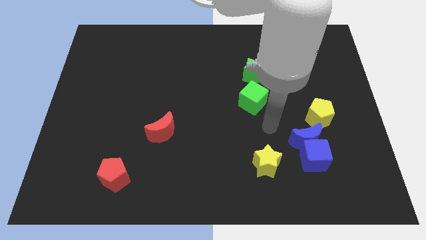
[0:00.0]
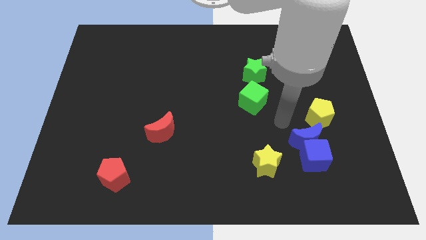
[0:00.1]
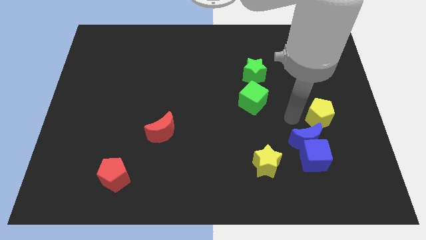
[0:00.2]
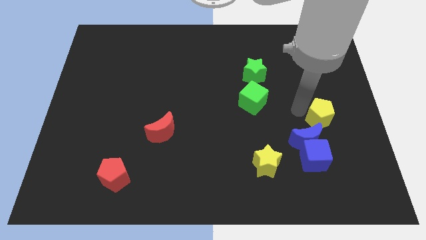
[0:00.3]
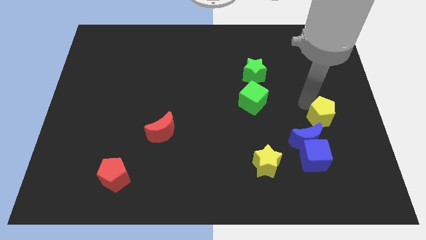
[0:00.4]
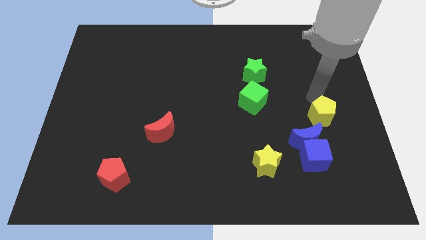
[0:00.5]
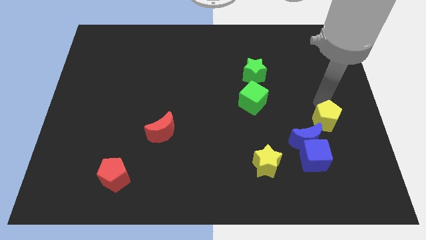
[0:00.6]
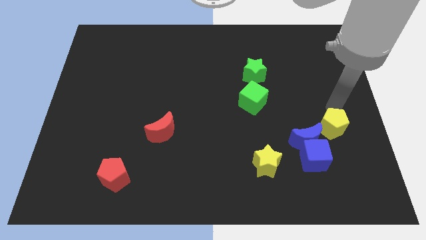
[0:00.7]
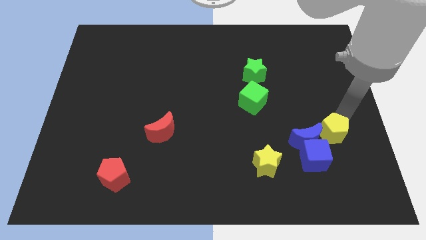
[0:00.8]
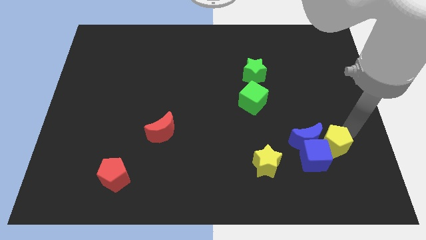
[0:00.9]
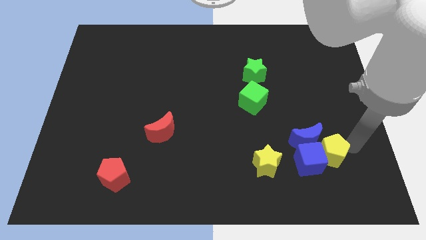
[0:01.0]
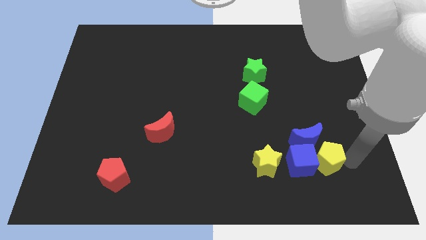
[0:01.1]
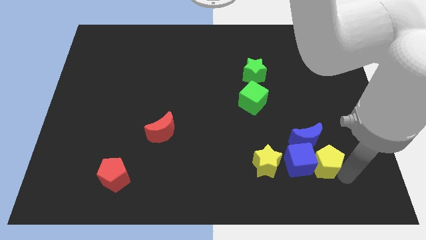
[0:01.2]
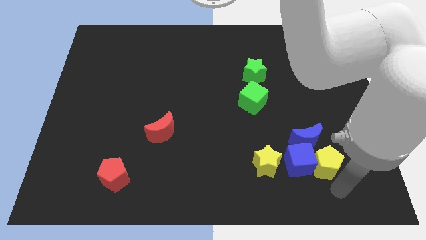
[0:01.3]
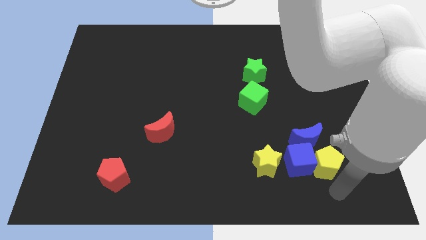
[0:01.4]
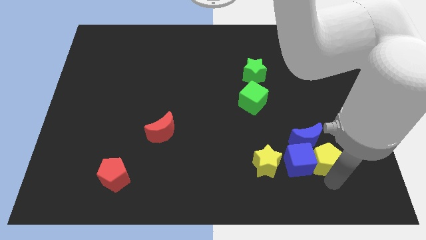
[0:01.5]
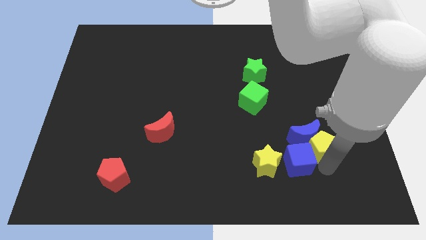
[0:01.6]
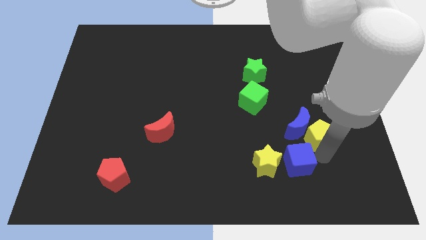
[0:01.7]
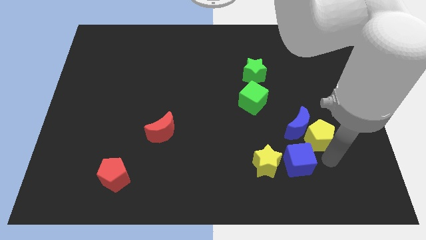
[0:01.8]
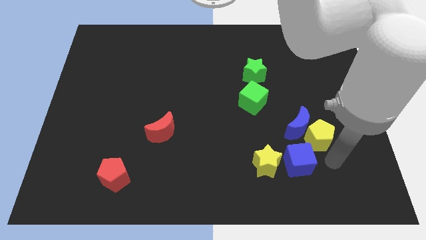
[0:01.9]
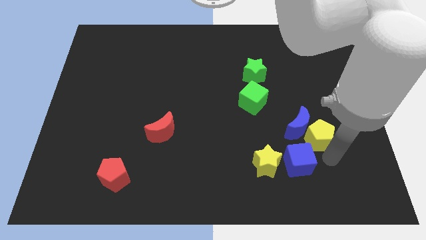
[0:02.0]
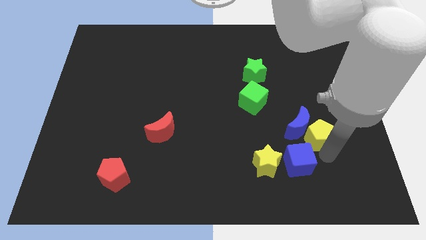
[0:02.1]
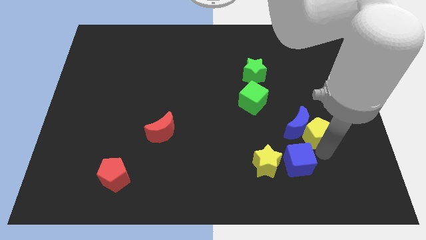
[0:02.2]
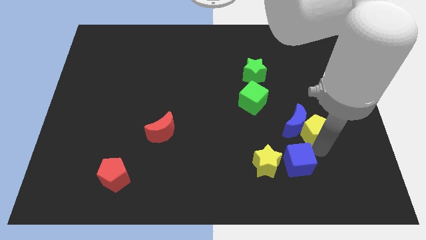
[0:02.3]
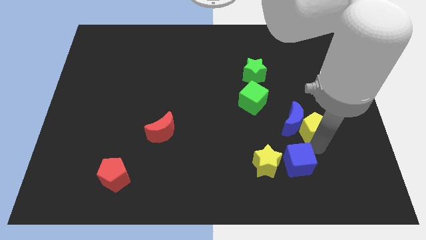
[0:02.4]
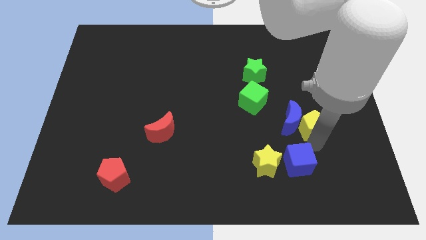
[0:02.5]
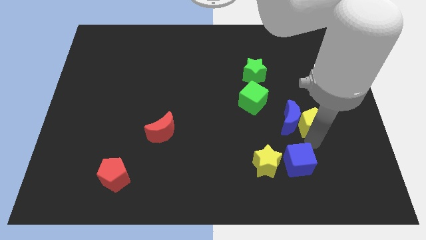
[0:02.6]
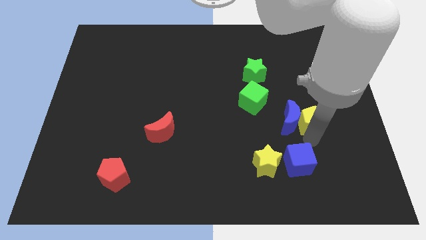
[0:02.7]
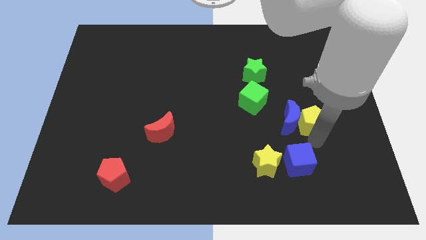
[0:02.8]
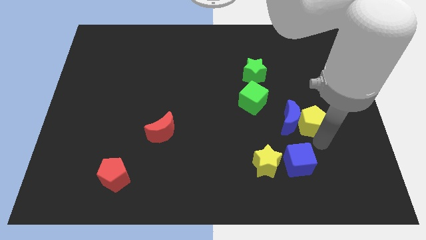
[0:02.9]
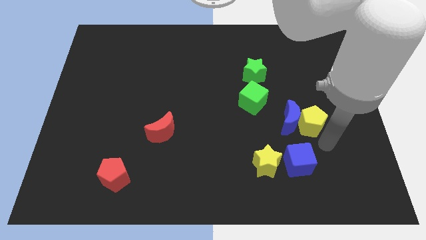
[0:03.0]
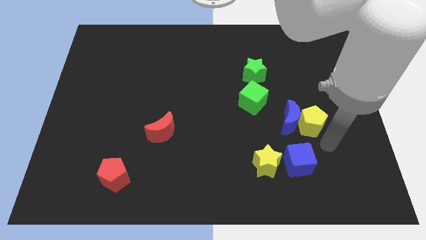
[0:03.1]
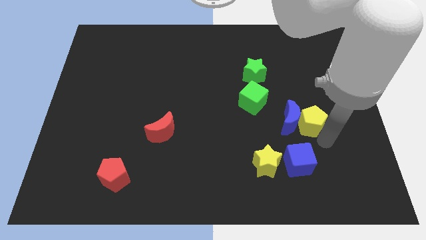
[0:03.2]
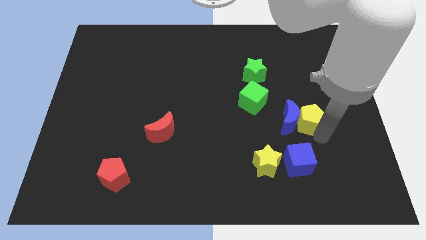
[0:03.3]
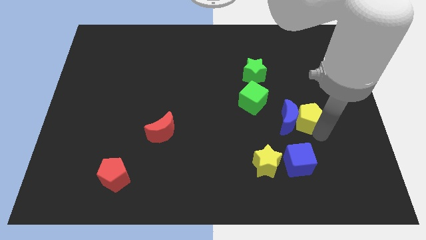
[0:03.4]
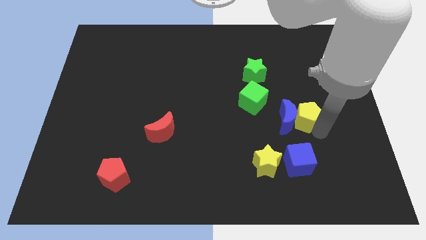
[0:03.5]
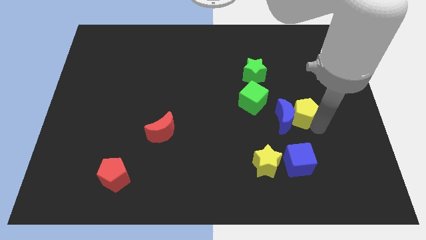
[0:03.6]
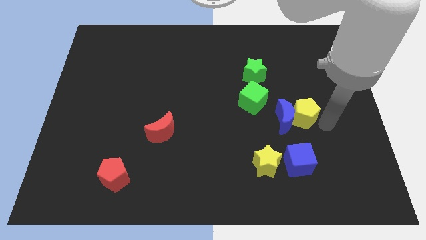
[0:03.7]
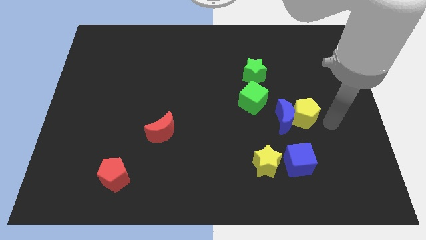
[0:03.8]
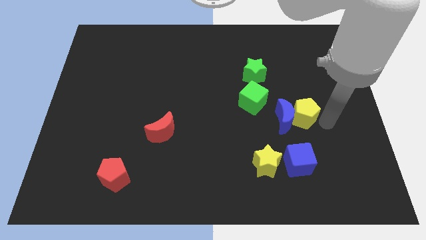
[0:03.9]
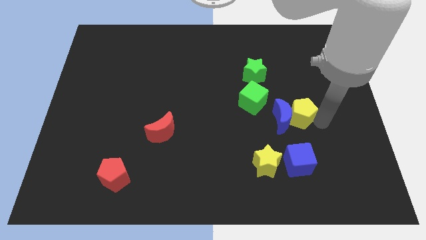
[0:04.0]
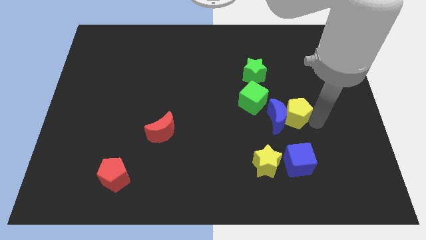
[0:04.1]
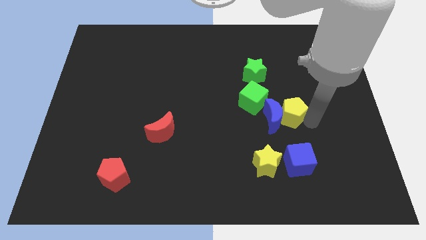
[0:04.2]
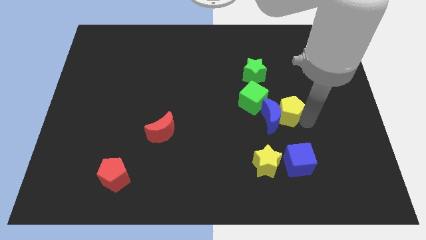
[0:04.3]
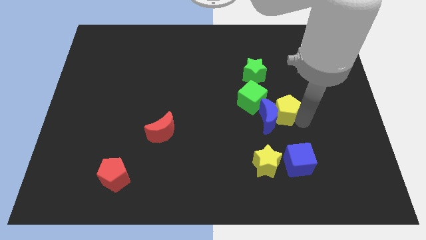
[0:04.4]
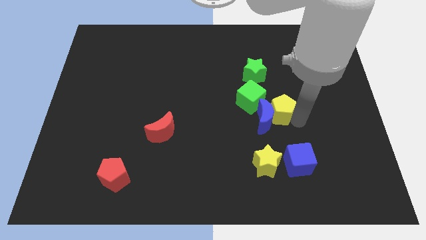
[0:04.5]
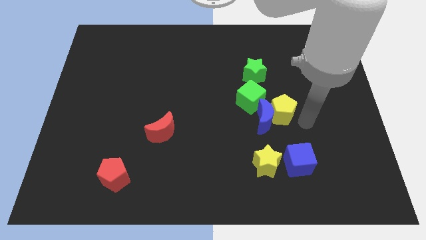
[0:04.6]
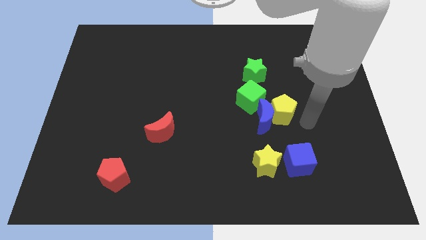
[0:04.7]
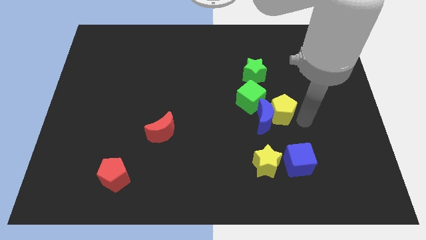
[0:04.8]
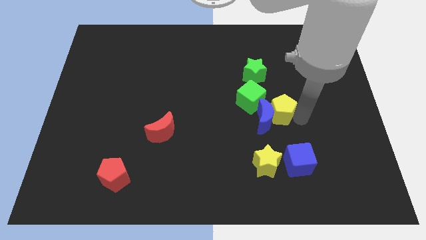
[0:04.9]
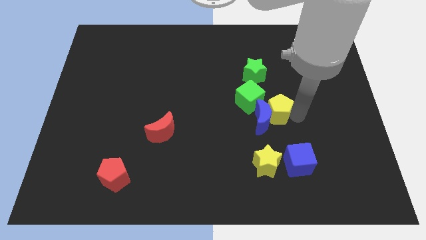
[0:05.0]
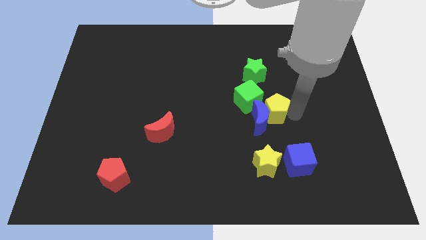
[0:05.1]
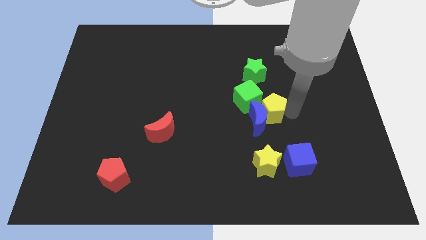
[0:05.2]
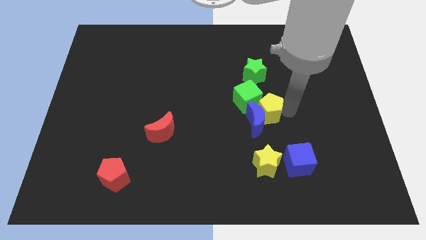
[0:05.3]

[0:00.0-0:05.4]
slide the yellow pentagon next to the green cube

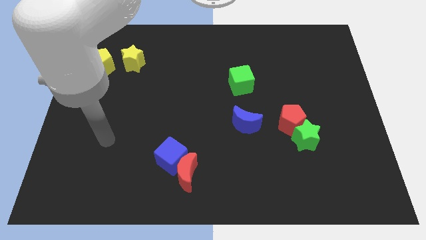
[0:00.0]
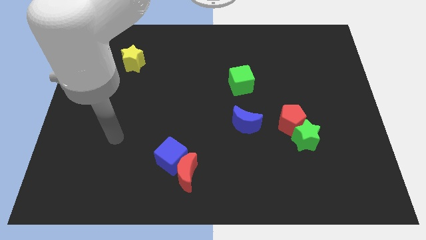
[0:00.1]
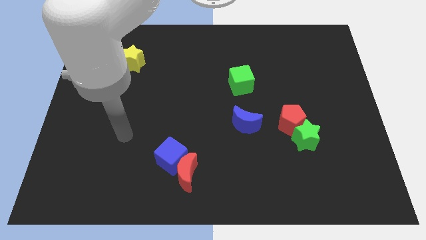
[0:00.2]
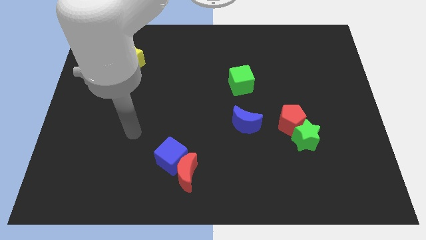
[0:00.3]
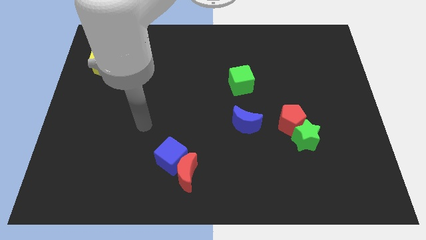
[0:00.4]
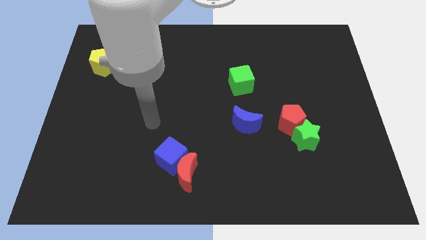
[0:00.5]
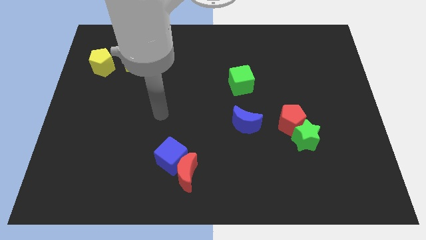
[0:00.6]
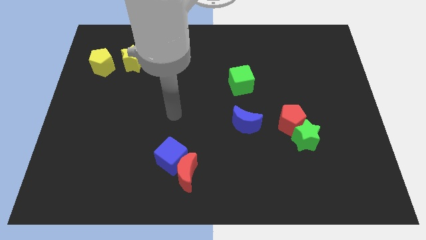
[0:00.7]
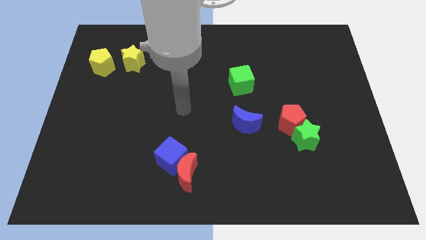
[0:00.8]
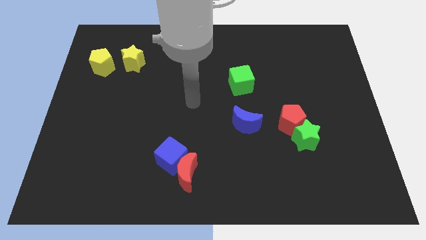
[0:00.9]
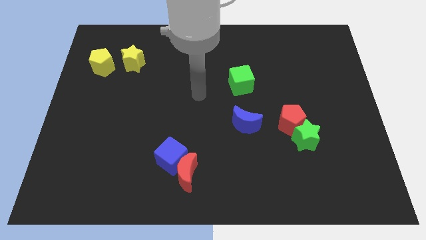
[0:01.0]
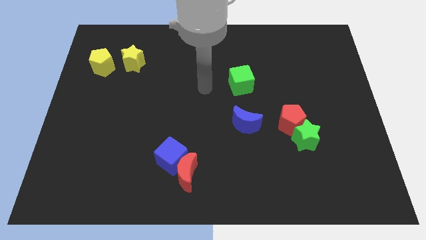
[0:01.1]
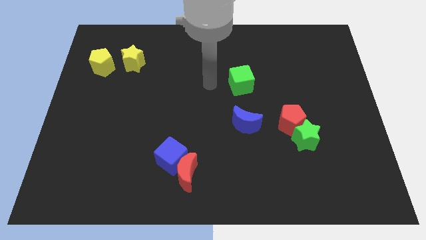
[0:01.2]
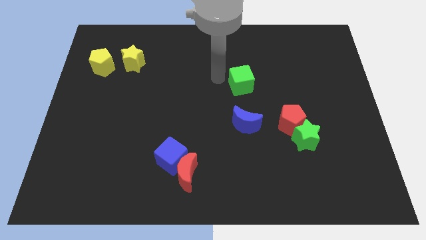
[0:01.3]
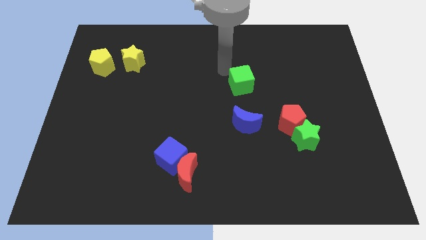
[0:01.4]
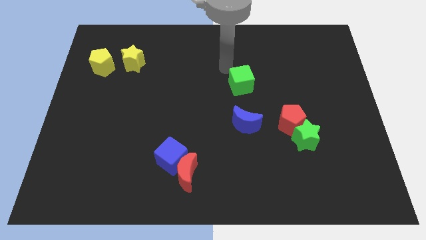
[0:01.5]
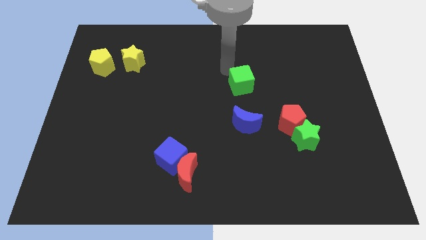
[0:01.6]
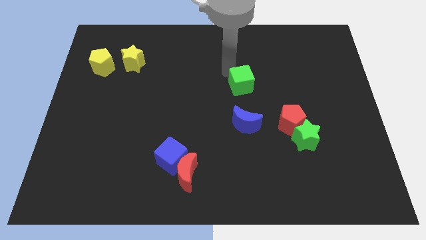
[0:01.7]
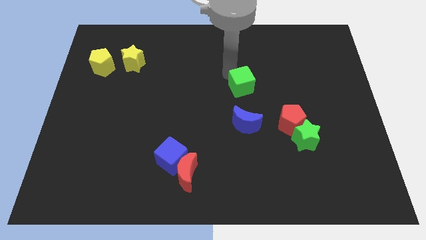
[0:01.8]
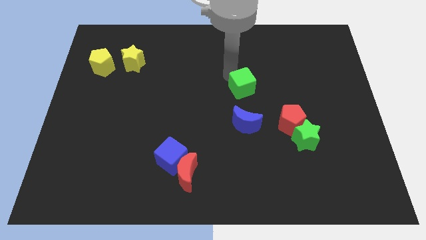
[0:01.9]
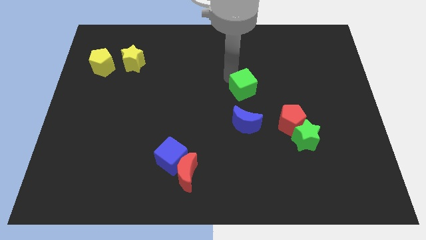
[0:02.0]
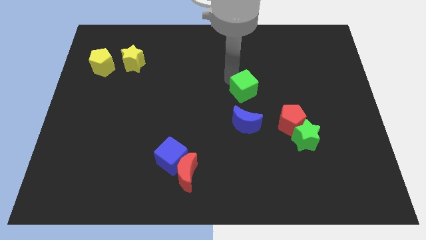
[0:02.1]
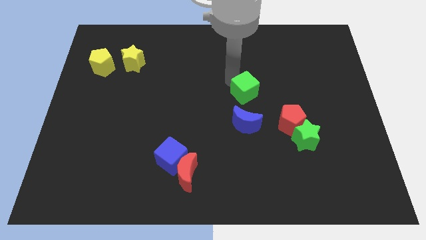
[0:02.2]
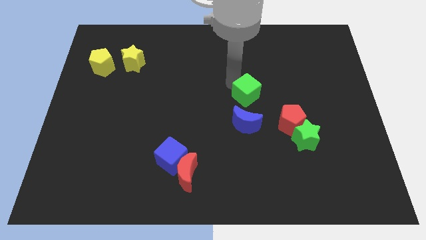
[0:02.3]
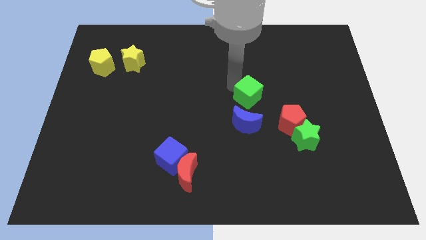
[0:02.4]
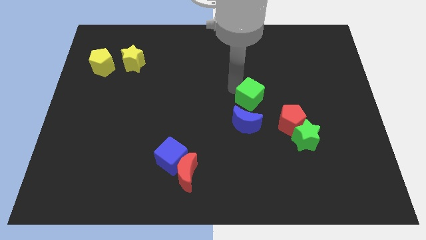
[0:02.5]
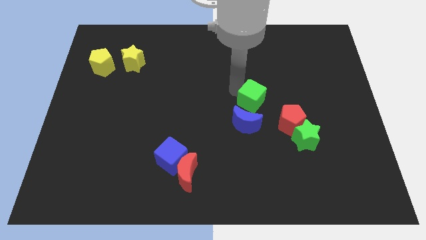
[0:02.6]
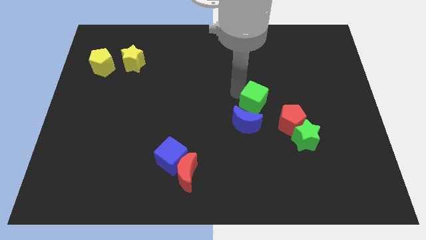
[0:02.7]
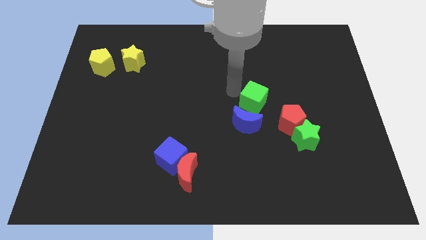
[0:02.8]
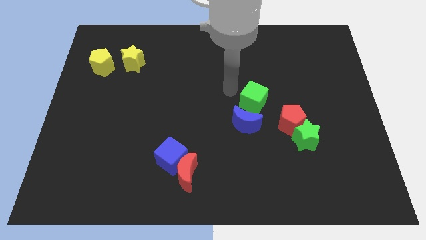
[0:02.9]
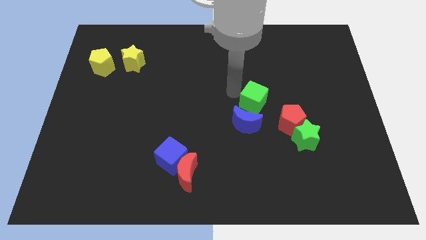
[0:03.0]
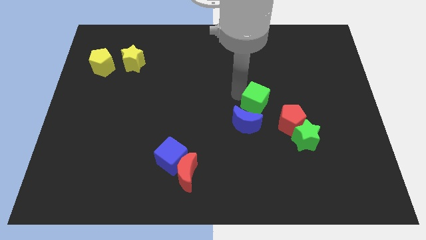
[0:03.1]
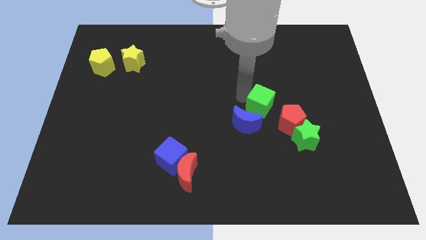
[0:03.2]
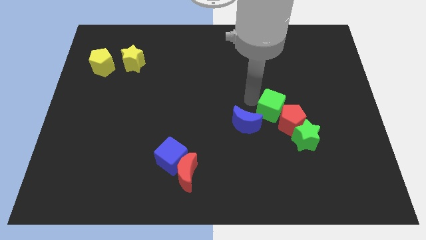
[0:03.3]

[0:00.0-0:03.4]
put the green cube next to the red pentagon
